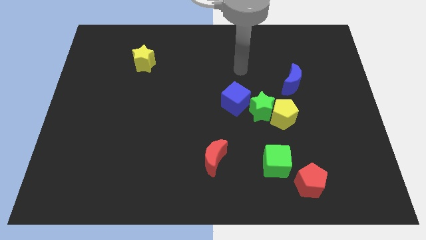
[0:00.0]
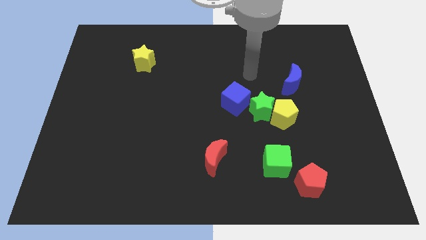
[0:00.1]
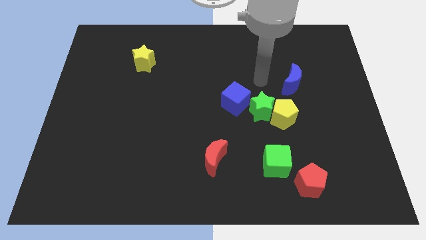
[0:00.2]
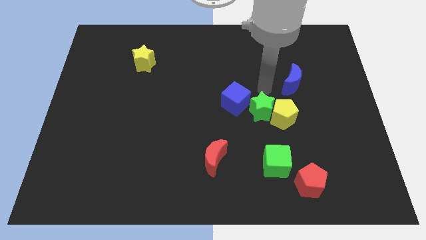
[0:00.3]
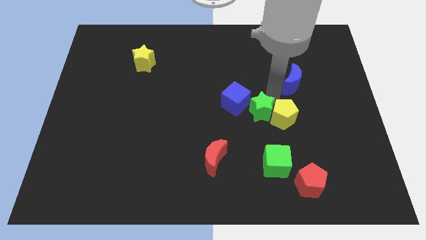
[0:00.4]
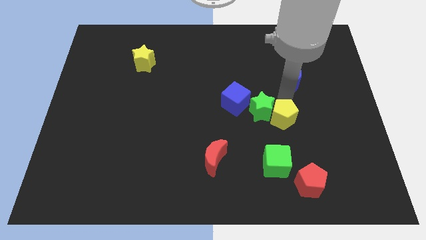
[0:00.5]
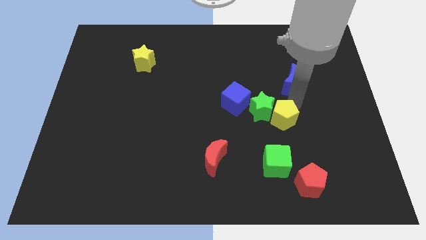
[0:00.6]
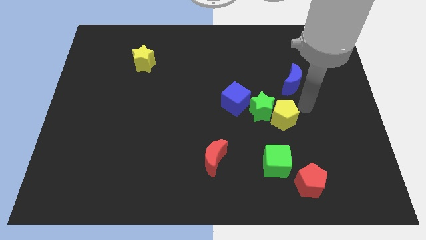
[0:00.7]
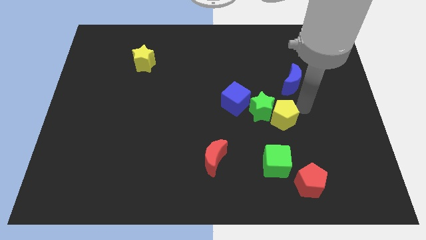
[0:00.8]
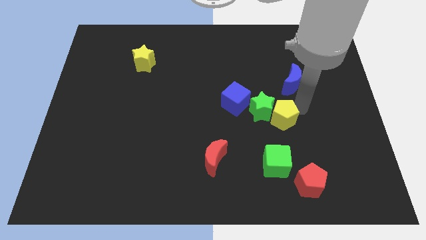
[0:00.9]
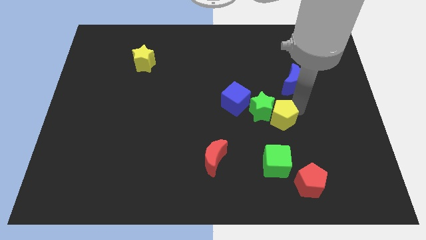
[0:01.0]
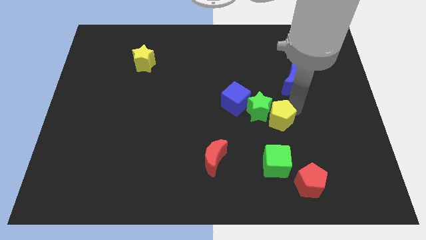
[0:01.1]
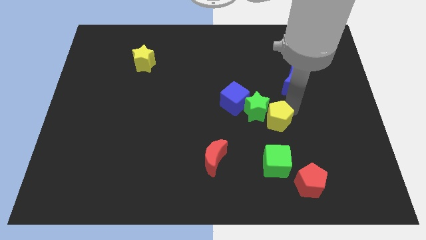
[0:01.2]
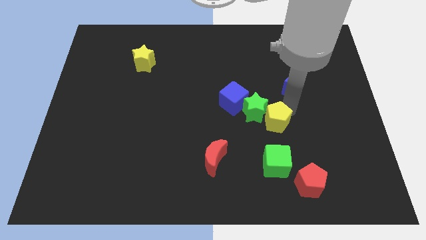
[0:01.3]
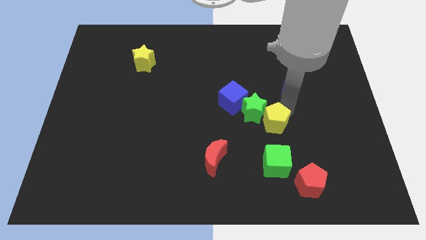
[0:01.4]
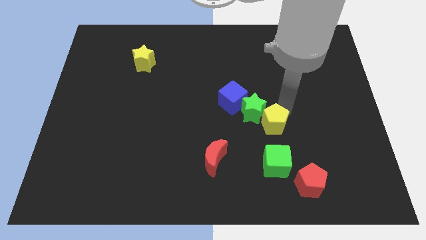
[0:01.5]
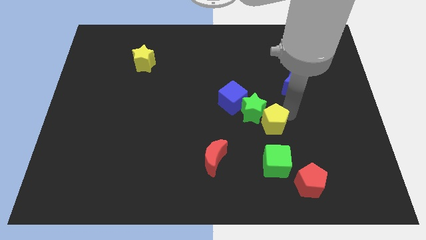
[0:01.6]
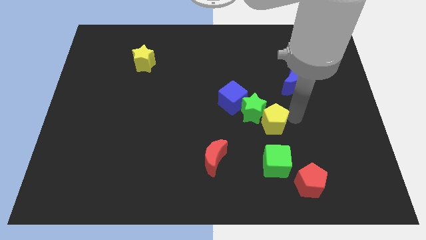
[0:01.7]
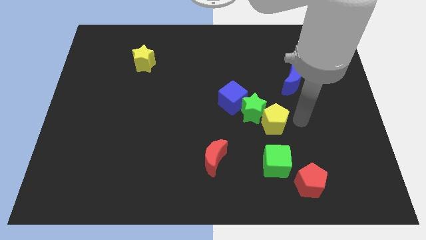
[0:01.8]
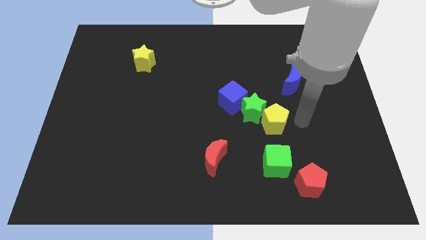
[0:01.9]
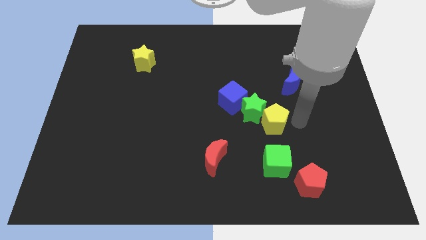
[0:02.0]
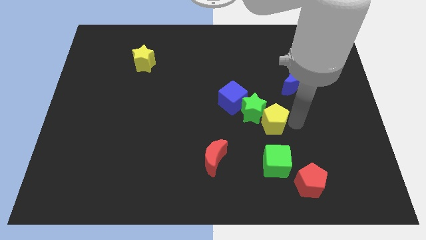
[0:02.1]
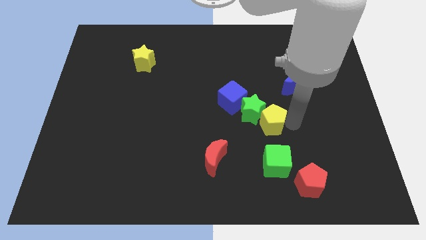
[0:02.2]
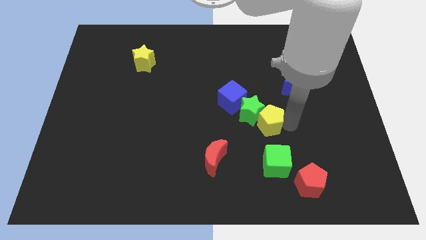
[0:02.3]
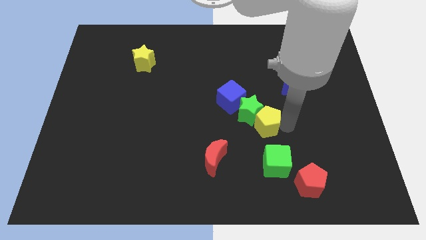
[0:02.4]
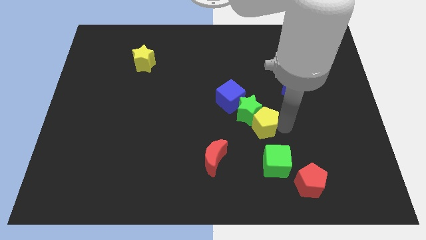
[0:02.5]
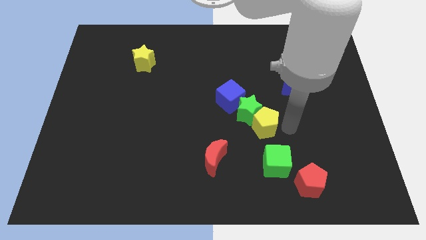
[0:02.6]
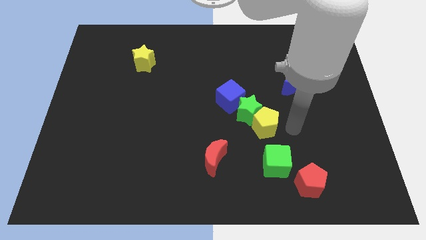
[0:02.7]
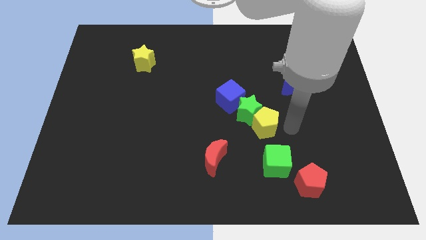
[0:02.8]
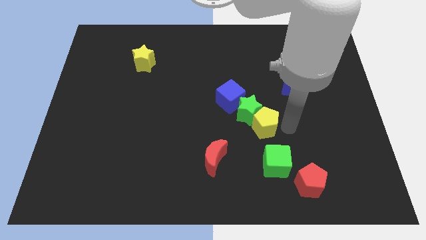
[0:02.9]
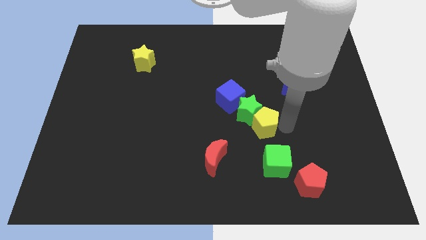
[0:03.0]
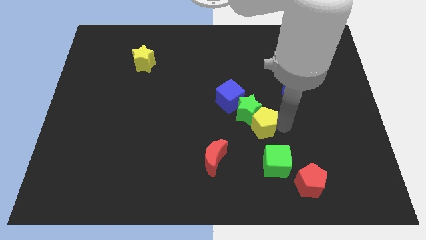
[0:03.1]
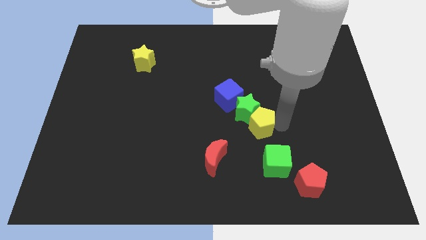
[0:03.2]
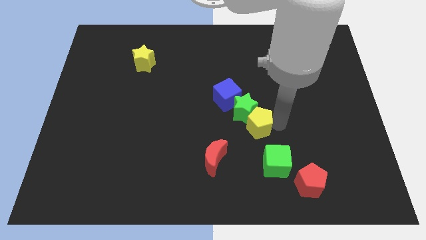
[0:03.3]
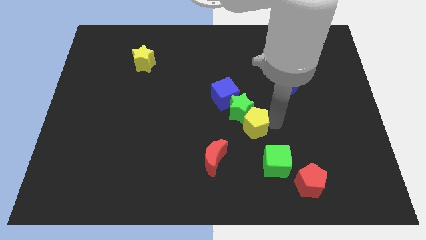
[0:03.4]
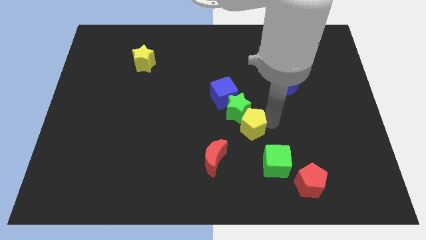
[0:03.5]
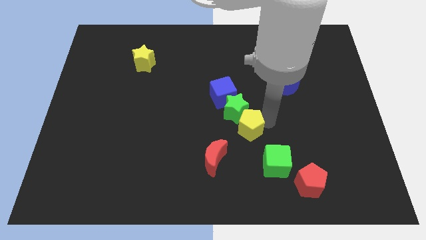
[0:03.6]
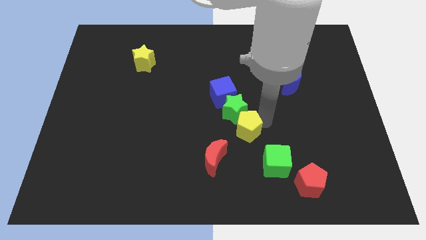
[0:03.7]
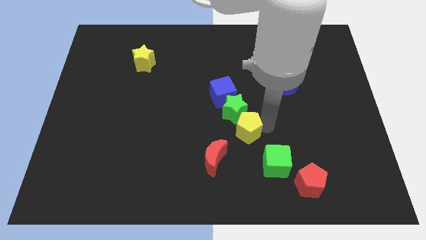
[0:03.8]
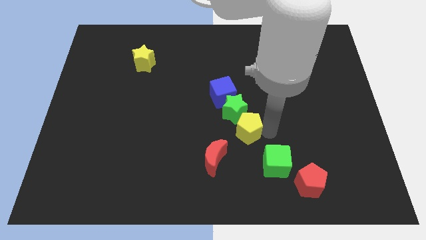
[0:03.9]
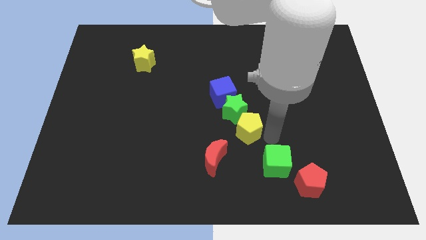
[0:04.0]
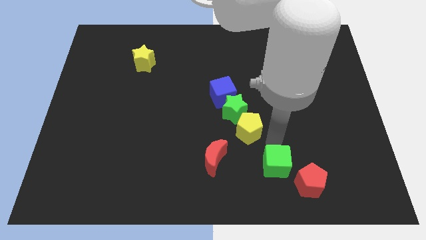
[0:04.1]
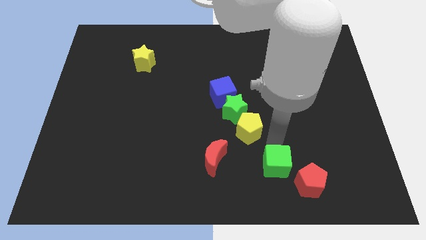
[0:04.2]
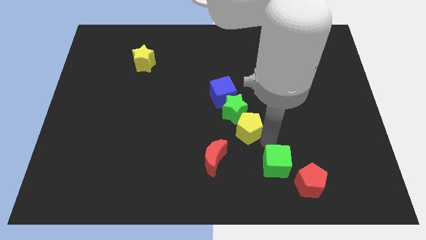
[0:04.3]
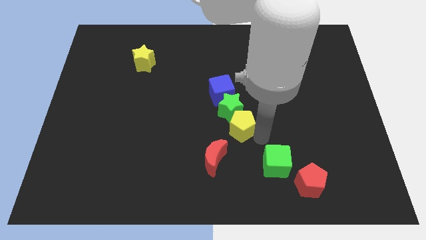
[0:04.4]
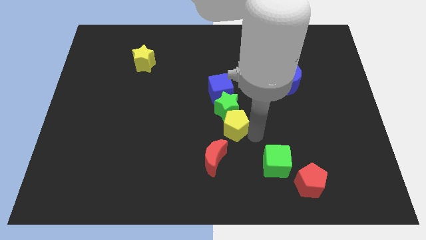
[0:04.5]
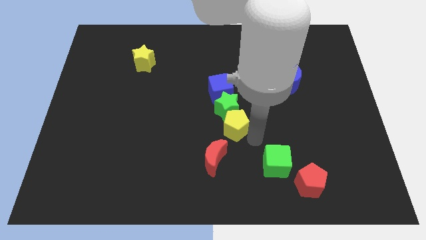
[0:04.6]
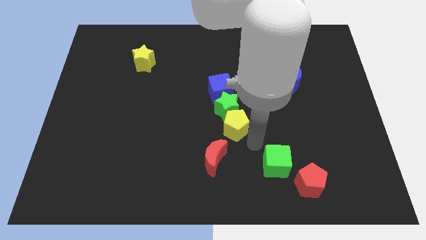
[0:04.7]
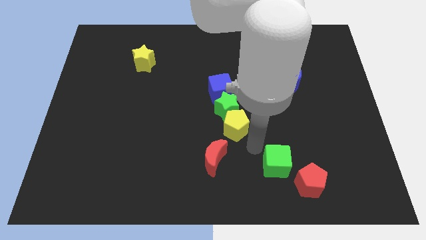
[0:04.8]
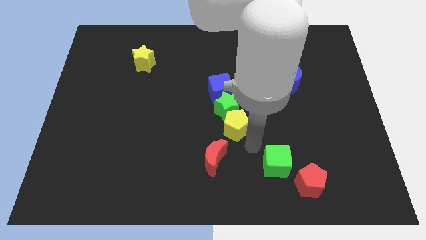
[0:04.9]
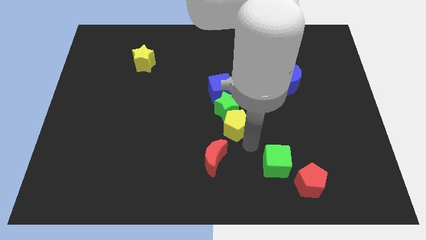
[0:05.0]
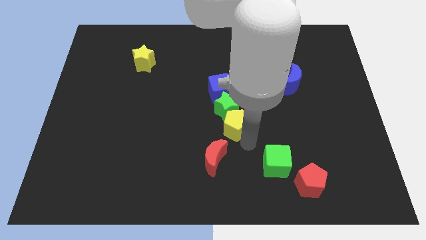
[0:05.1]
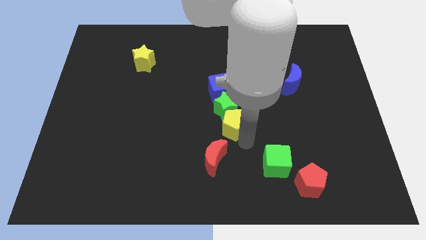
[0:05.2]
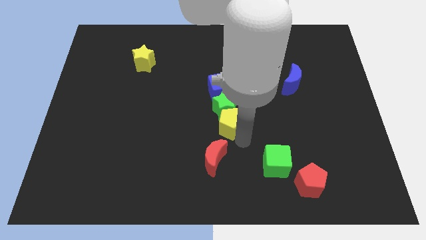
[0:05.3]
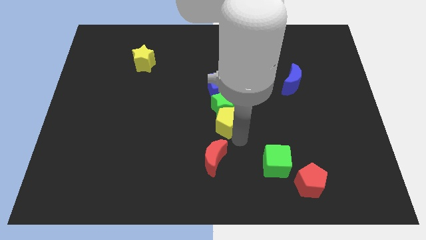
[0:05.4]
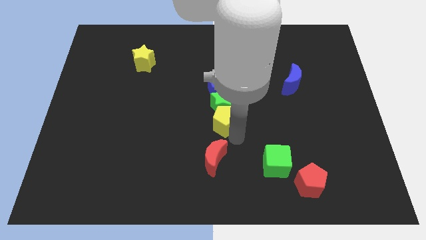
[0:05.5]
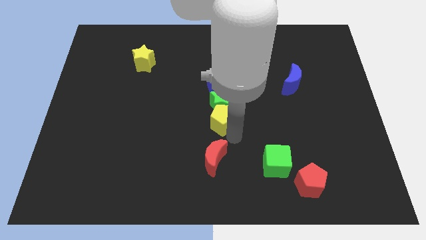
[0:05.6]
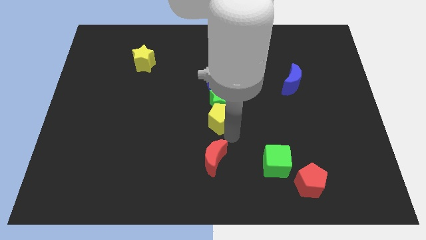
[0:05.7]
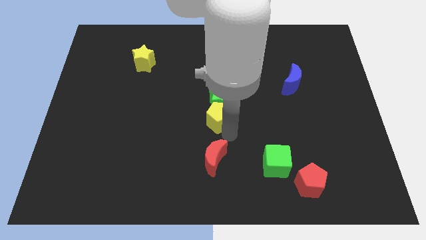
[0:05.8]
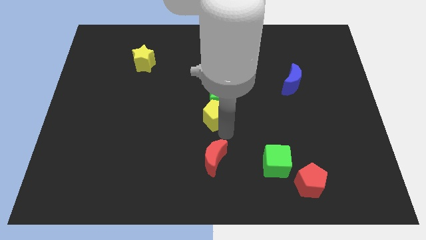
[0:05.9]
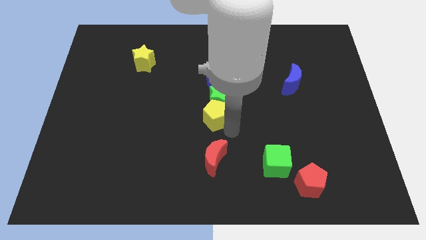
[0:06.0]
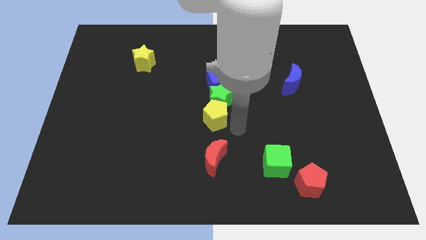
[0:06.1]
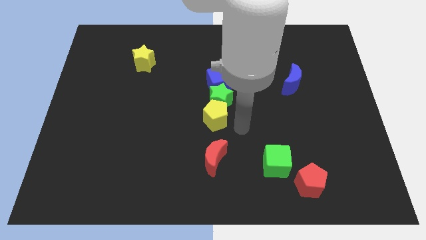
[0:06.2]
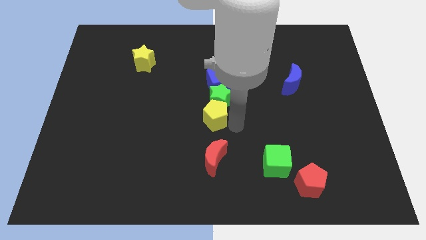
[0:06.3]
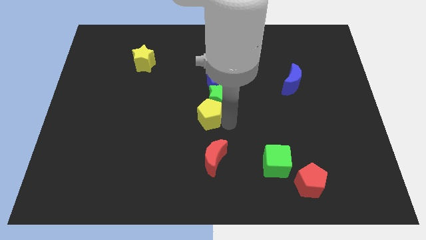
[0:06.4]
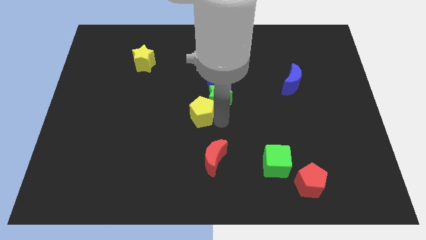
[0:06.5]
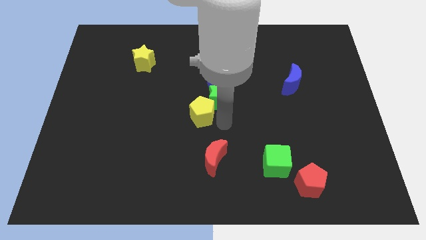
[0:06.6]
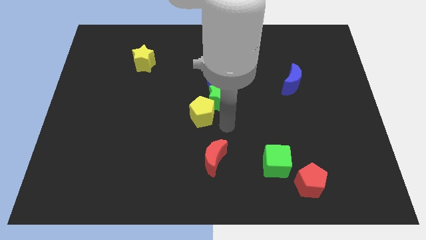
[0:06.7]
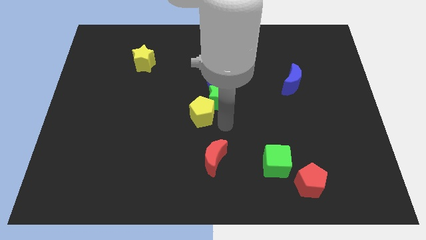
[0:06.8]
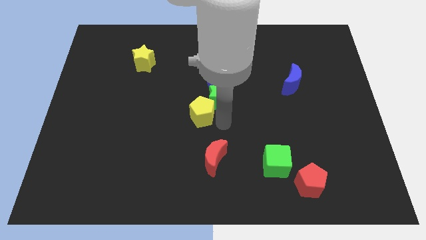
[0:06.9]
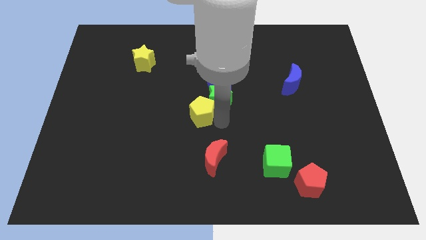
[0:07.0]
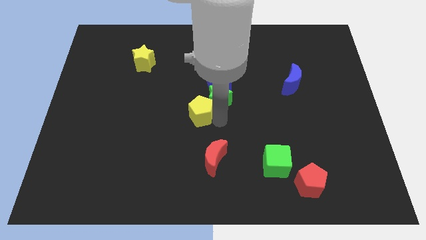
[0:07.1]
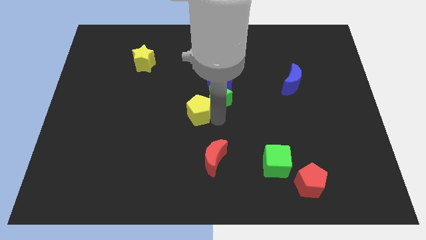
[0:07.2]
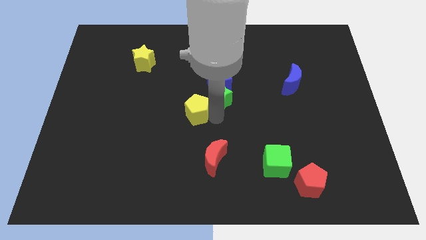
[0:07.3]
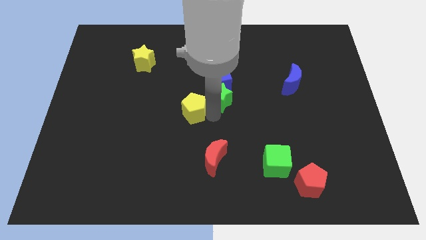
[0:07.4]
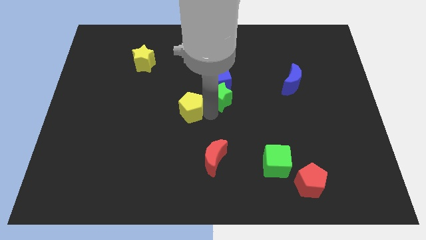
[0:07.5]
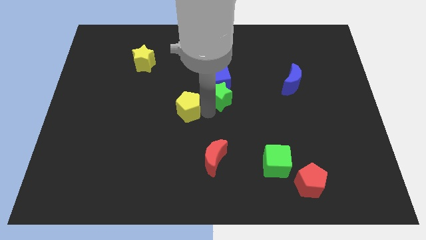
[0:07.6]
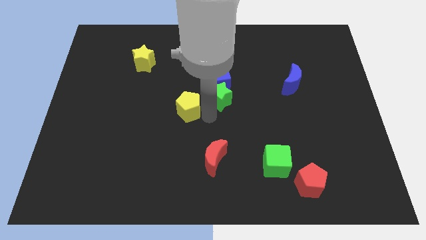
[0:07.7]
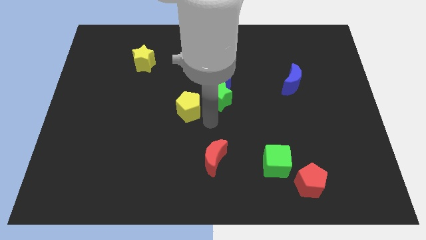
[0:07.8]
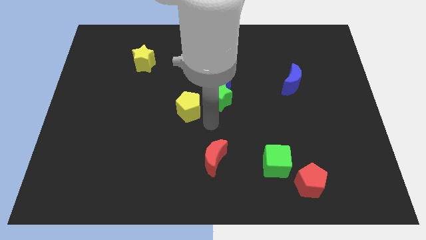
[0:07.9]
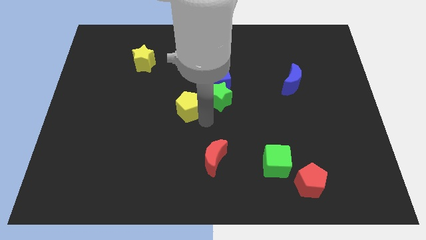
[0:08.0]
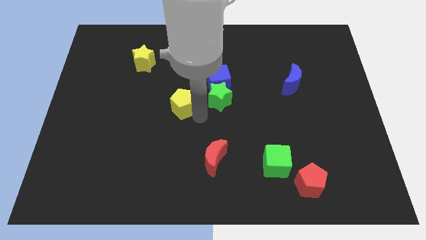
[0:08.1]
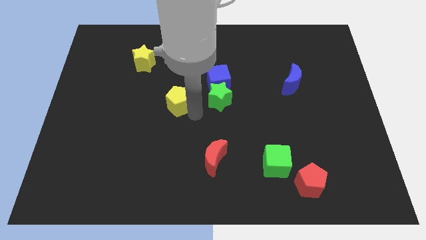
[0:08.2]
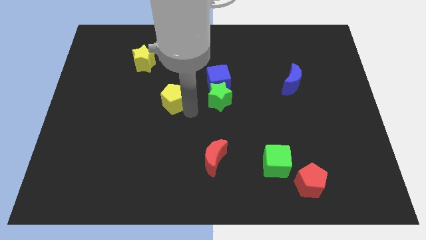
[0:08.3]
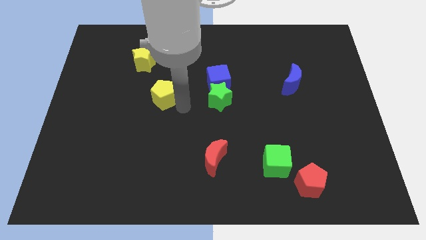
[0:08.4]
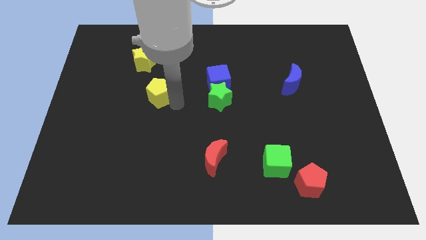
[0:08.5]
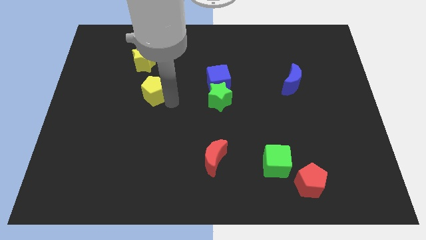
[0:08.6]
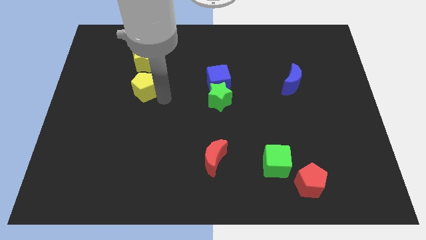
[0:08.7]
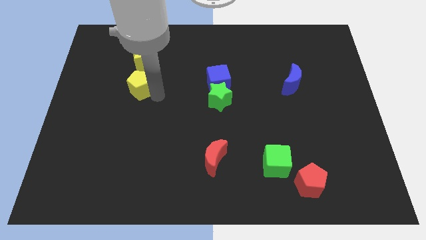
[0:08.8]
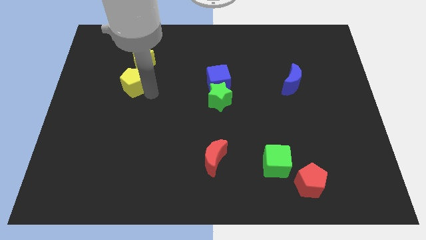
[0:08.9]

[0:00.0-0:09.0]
move the yellow pentagon to the bottom left of the yellow star
